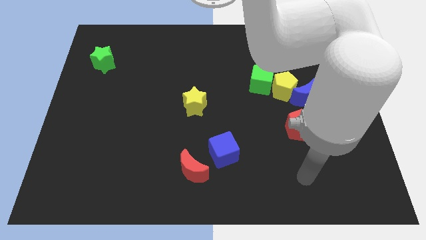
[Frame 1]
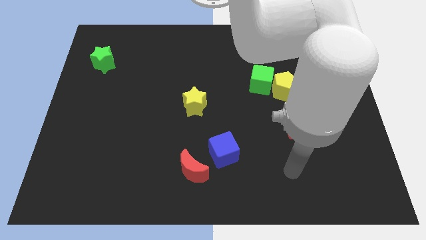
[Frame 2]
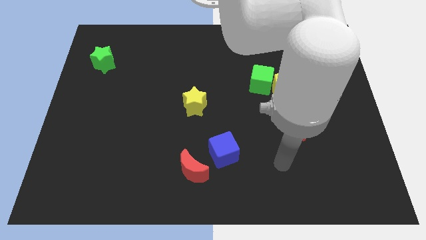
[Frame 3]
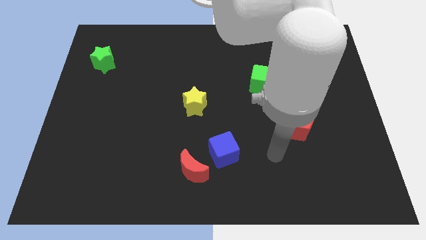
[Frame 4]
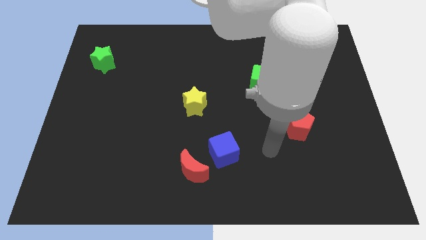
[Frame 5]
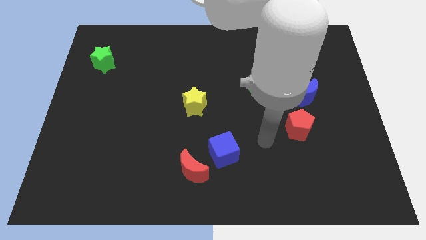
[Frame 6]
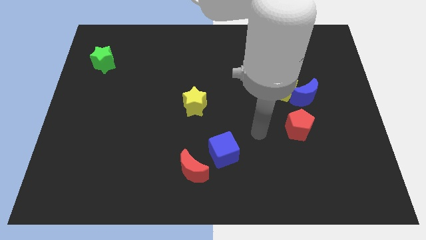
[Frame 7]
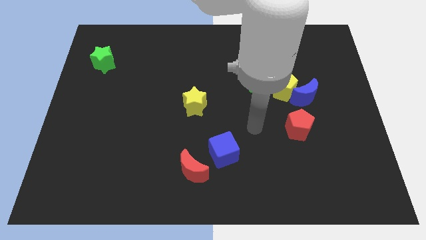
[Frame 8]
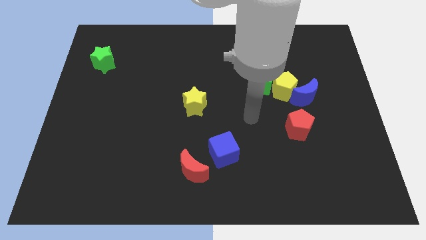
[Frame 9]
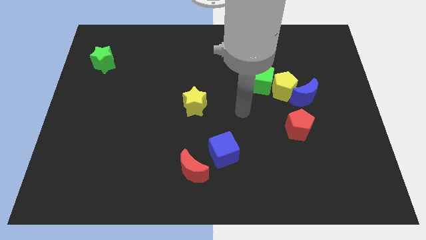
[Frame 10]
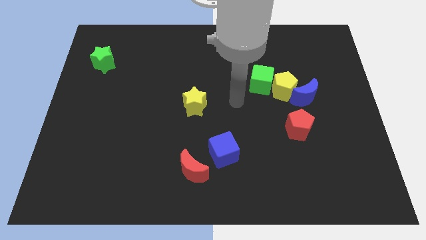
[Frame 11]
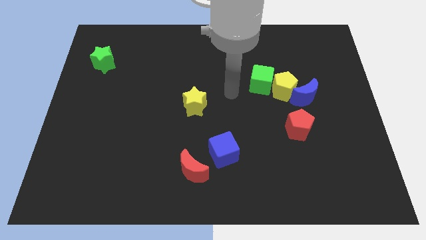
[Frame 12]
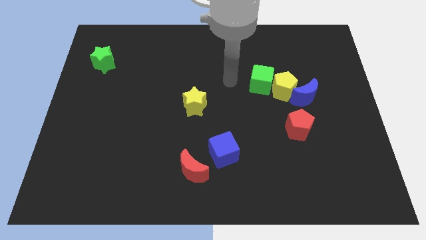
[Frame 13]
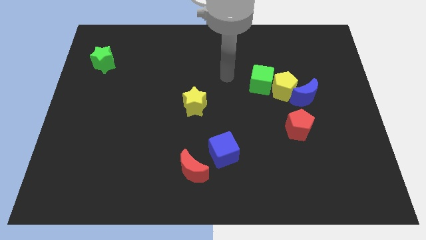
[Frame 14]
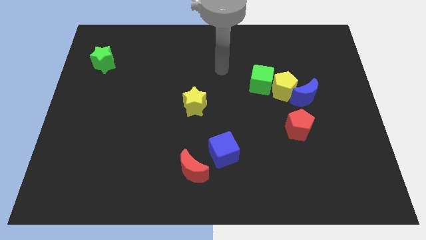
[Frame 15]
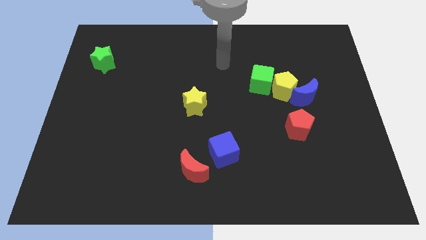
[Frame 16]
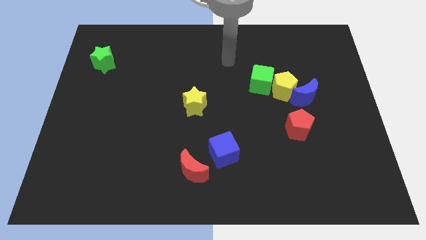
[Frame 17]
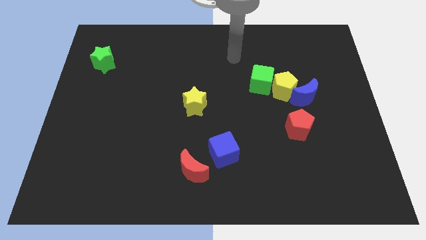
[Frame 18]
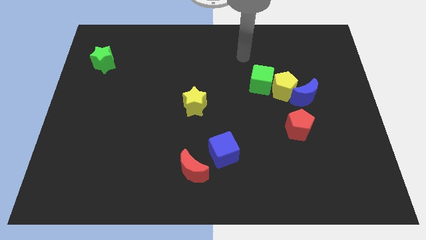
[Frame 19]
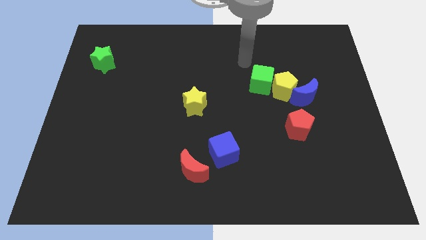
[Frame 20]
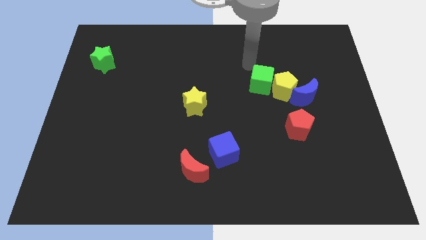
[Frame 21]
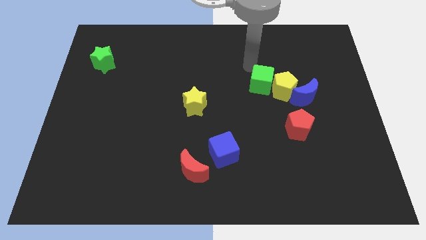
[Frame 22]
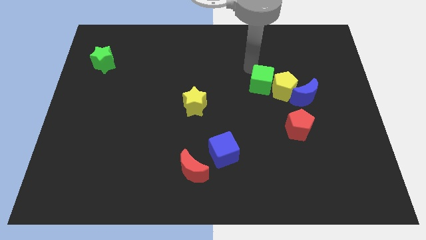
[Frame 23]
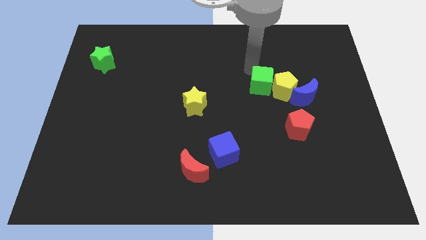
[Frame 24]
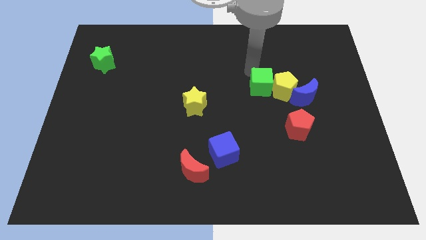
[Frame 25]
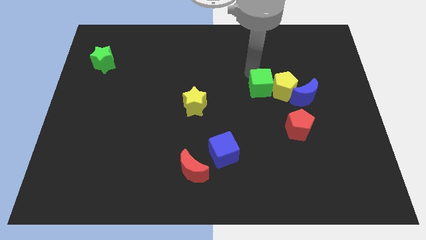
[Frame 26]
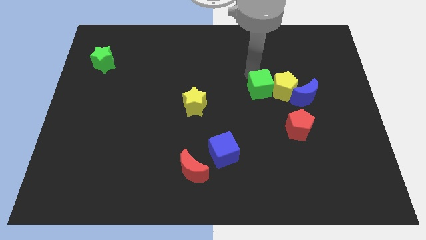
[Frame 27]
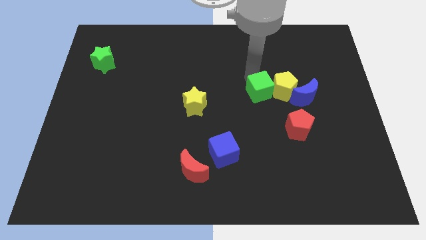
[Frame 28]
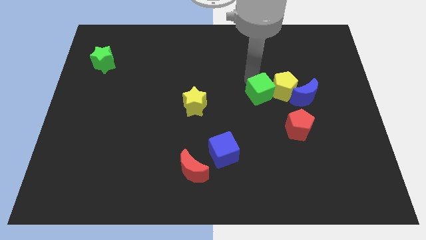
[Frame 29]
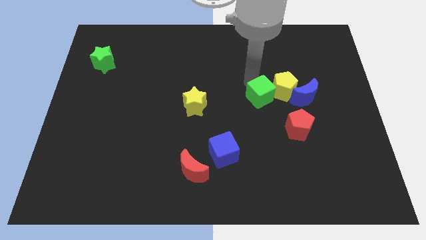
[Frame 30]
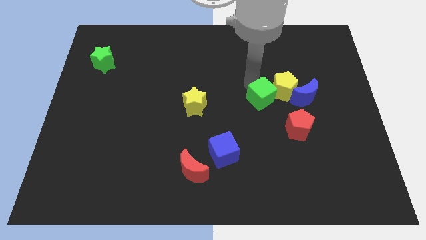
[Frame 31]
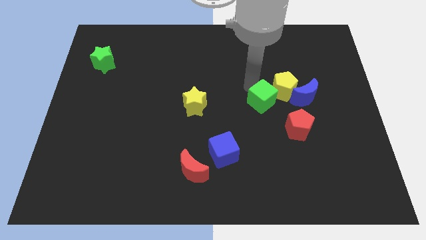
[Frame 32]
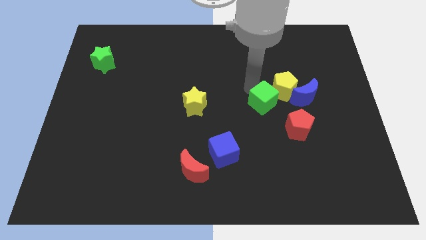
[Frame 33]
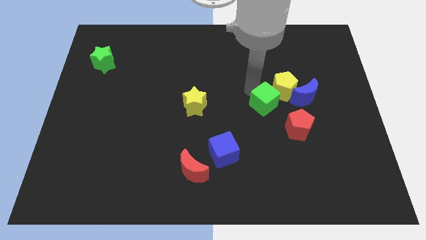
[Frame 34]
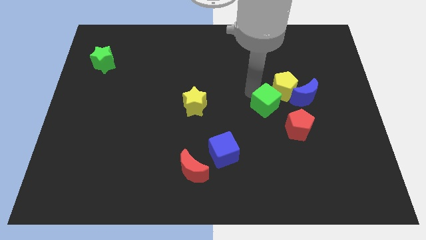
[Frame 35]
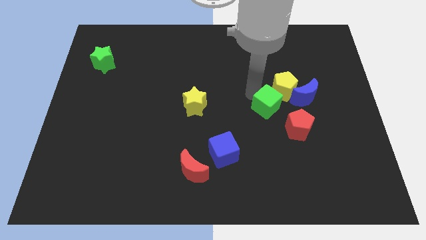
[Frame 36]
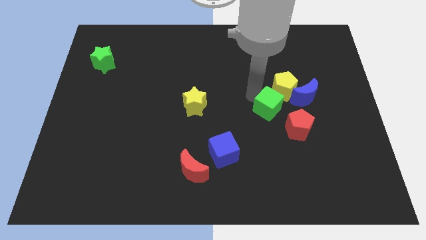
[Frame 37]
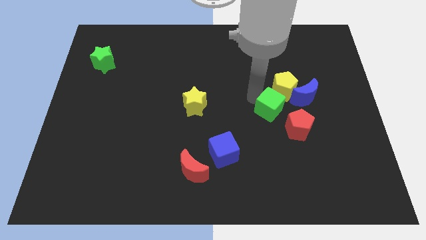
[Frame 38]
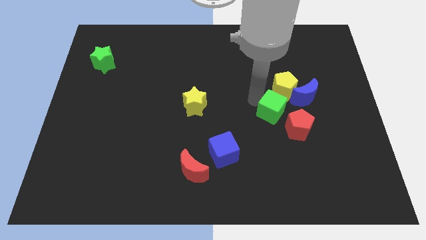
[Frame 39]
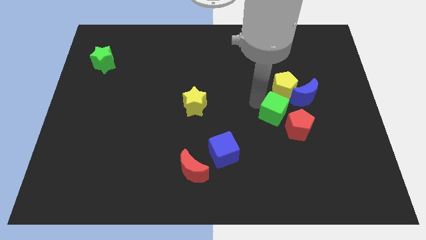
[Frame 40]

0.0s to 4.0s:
slide the green cube a little bit downwards and right diagonally

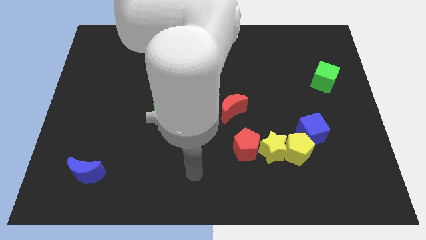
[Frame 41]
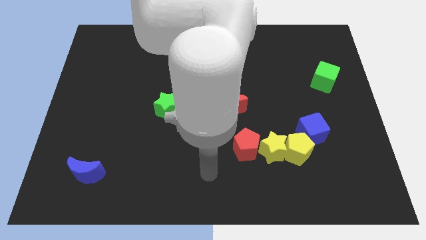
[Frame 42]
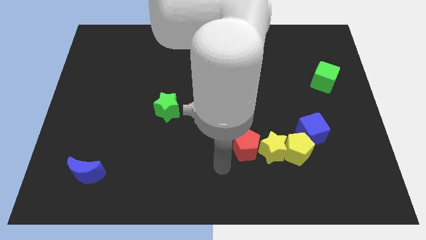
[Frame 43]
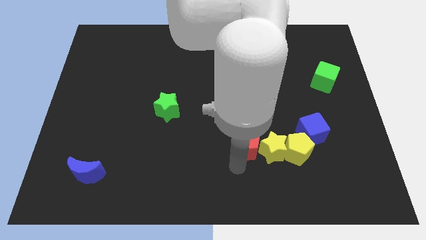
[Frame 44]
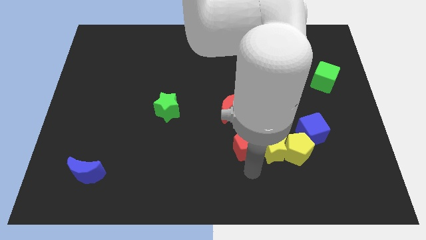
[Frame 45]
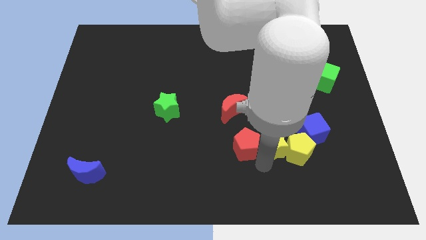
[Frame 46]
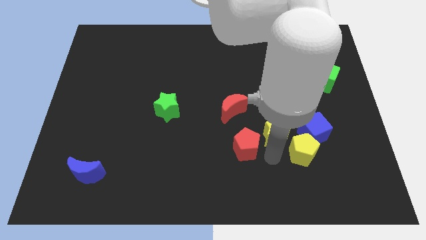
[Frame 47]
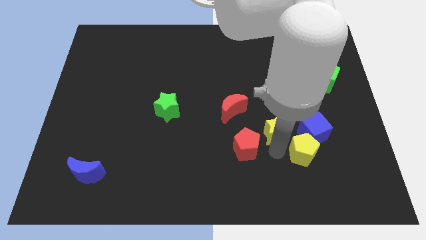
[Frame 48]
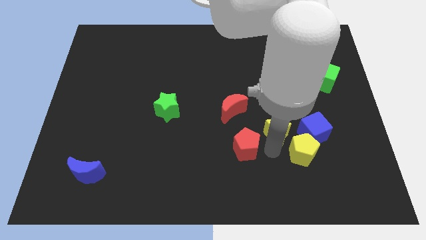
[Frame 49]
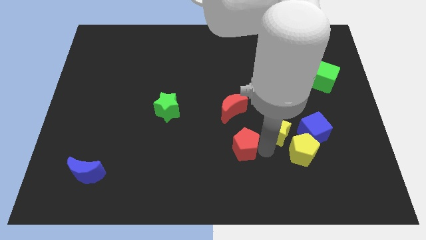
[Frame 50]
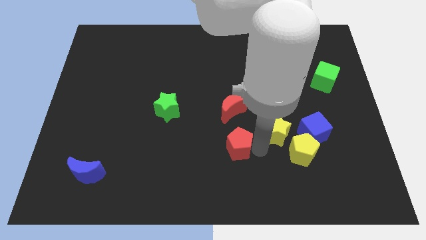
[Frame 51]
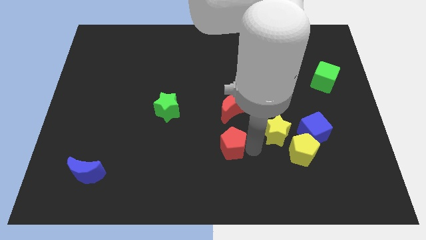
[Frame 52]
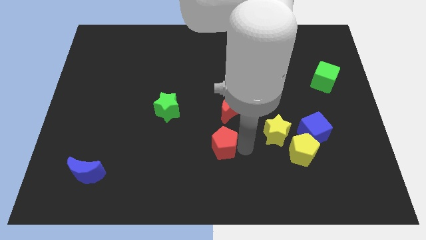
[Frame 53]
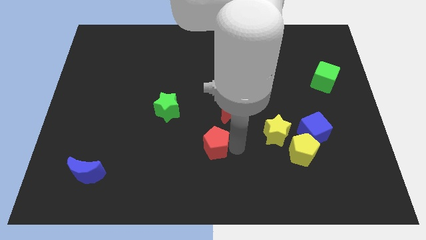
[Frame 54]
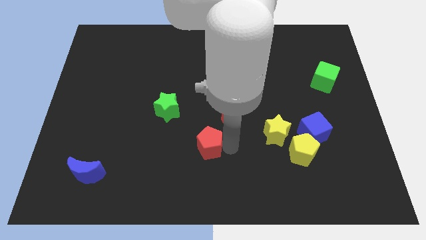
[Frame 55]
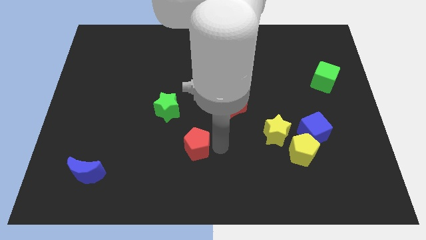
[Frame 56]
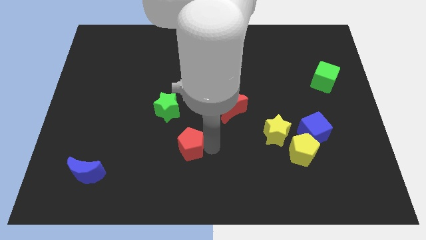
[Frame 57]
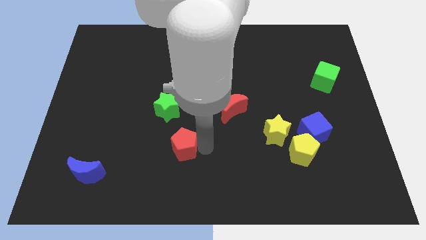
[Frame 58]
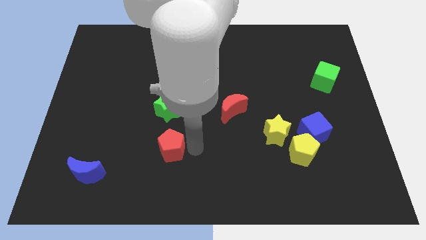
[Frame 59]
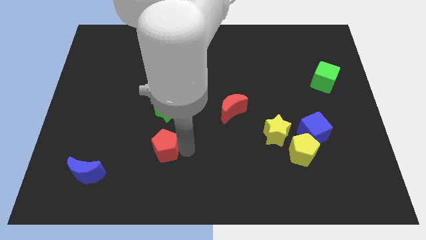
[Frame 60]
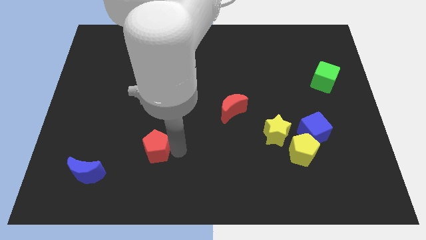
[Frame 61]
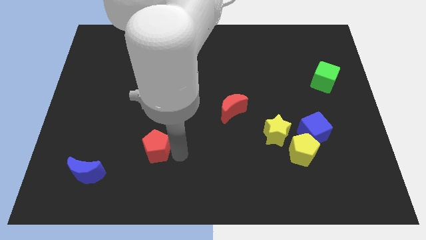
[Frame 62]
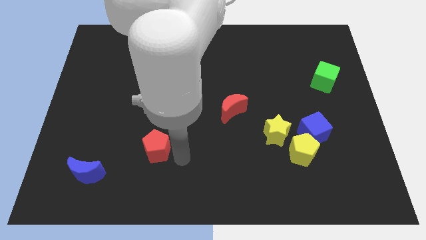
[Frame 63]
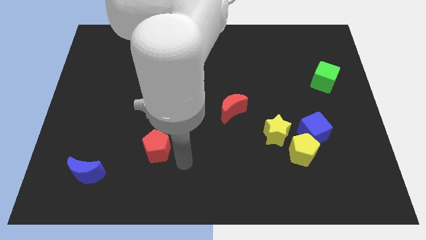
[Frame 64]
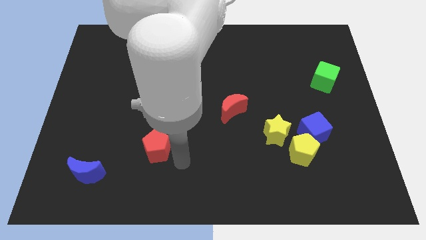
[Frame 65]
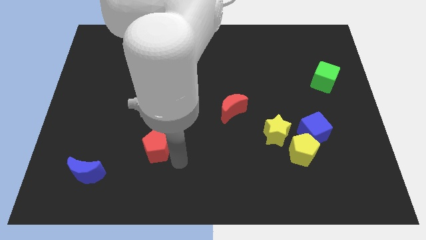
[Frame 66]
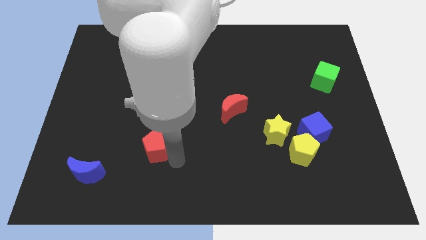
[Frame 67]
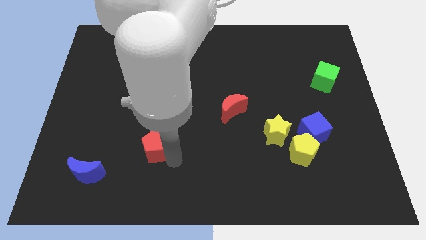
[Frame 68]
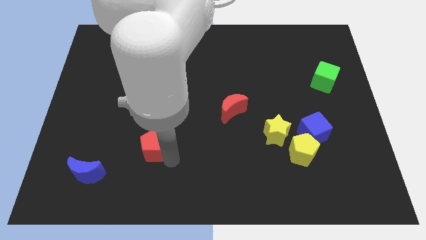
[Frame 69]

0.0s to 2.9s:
push the red pentagon left

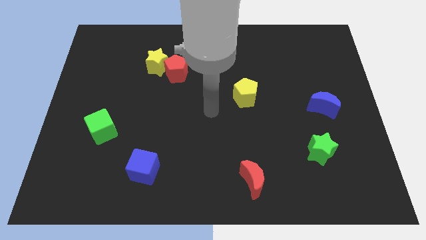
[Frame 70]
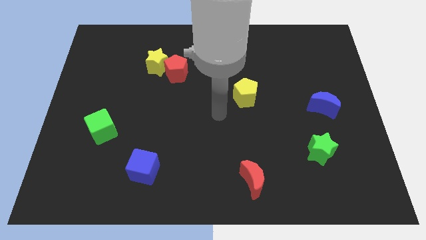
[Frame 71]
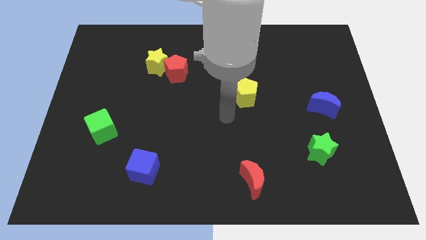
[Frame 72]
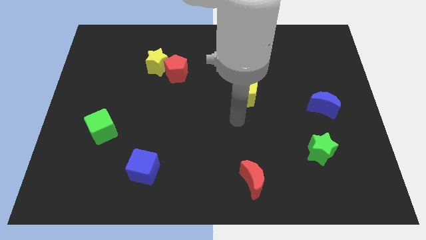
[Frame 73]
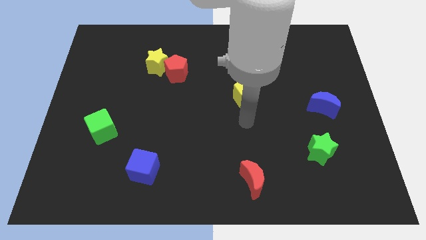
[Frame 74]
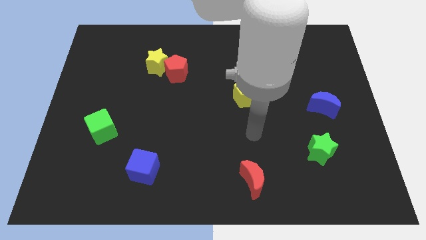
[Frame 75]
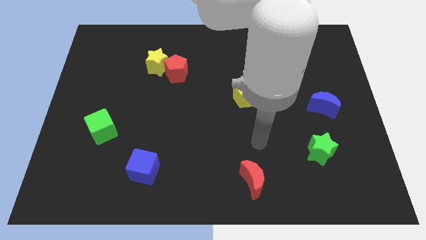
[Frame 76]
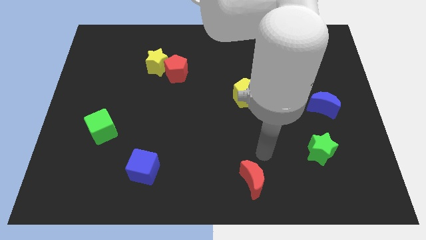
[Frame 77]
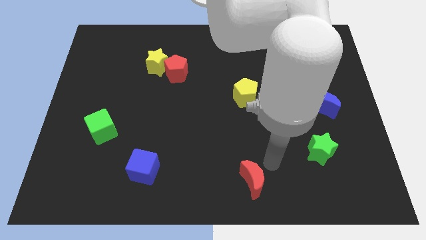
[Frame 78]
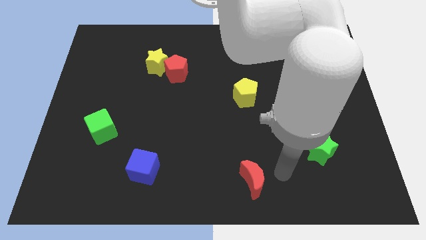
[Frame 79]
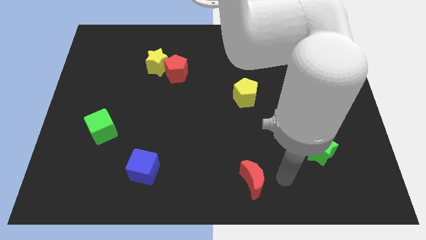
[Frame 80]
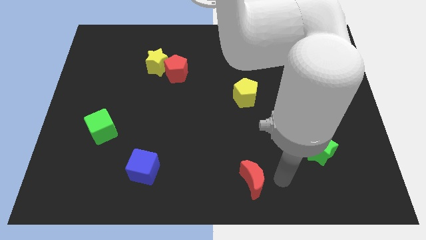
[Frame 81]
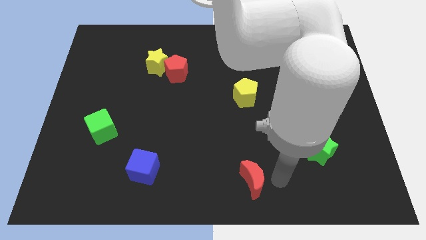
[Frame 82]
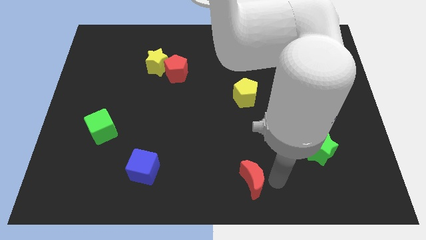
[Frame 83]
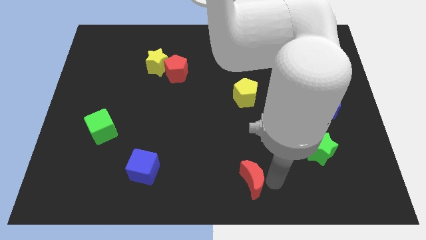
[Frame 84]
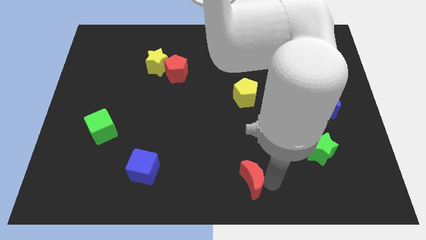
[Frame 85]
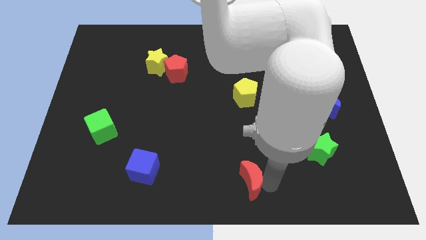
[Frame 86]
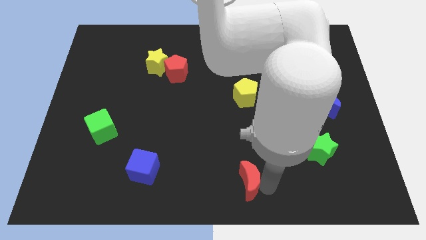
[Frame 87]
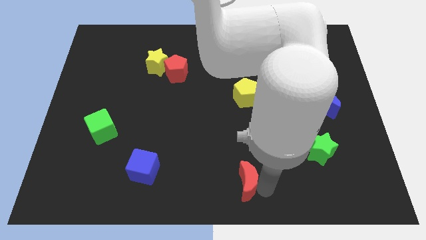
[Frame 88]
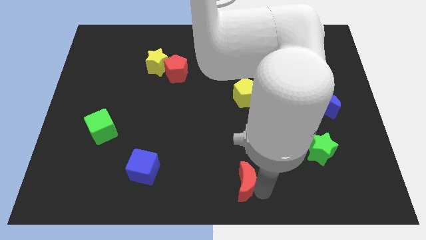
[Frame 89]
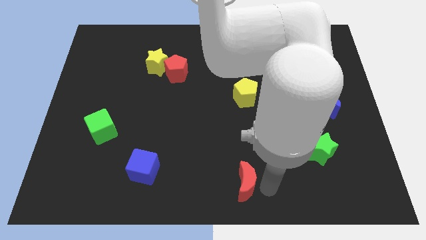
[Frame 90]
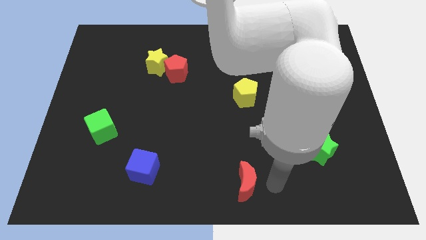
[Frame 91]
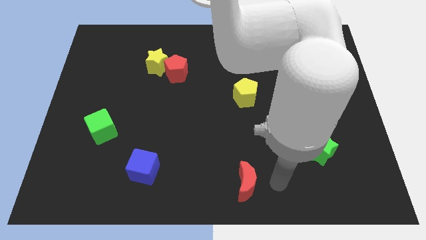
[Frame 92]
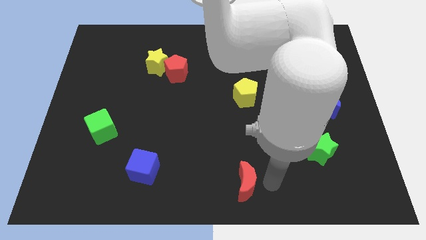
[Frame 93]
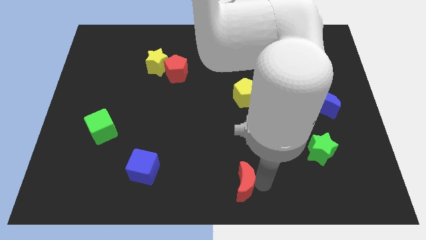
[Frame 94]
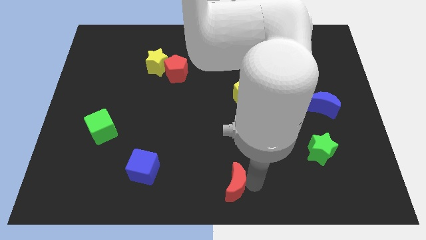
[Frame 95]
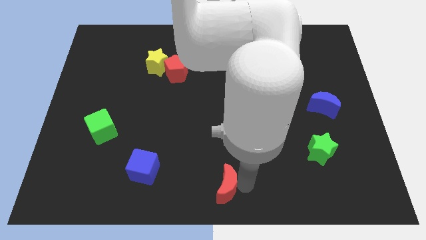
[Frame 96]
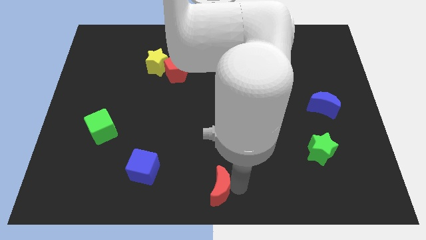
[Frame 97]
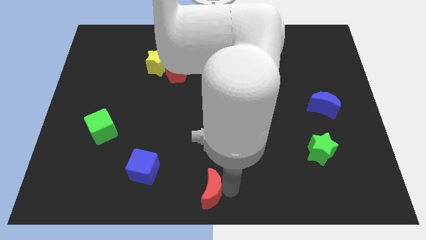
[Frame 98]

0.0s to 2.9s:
slightly push the red moon left
